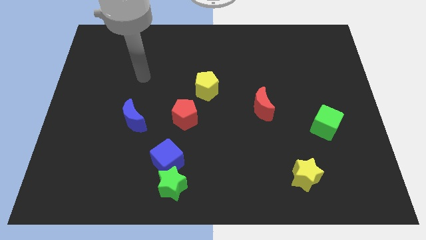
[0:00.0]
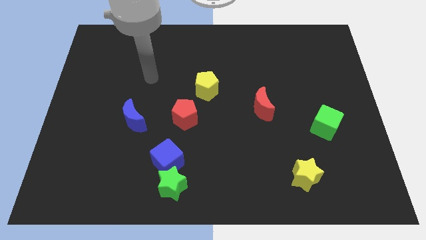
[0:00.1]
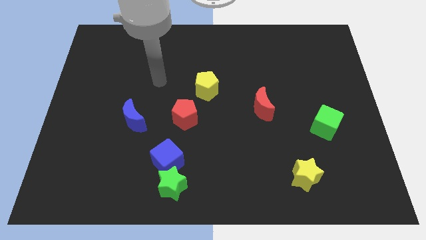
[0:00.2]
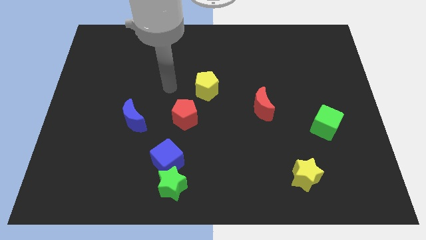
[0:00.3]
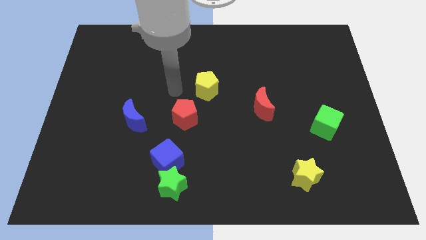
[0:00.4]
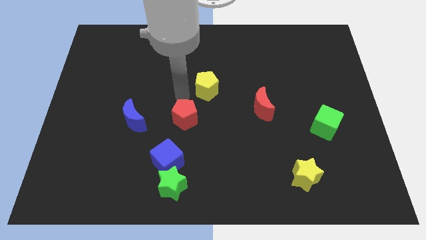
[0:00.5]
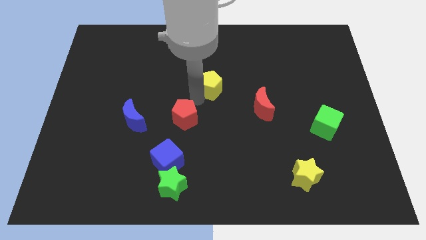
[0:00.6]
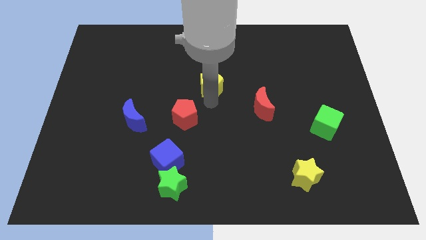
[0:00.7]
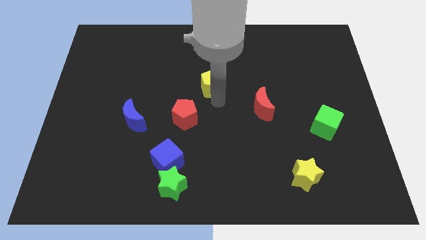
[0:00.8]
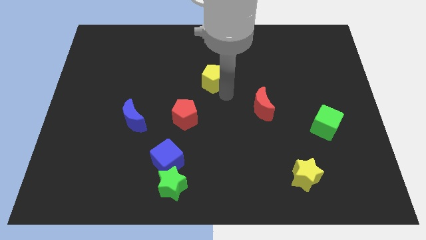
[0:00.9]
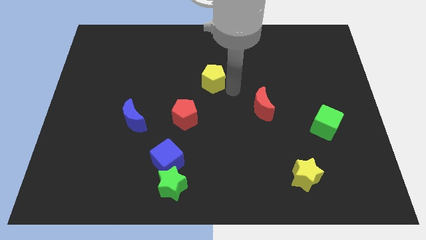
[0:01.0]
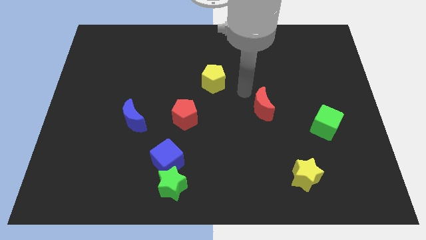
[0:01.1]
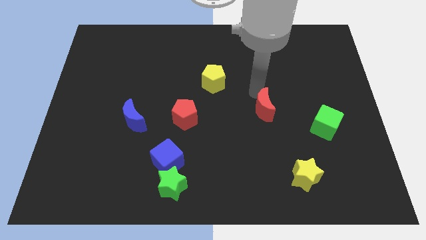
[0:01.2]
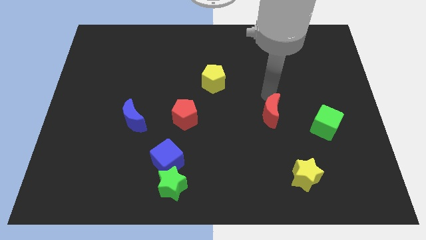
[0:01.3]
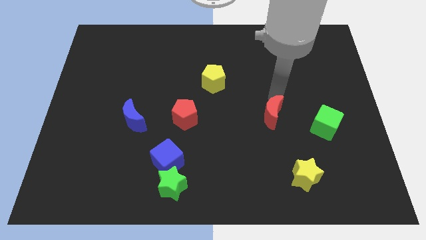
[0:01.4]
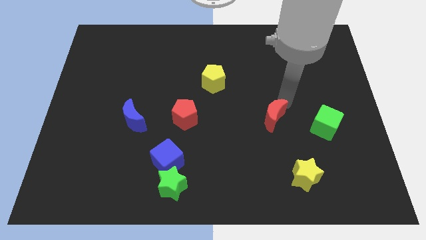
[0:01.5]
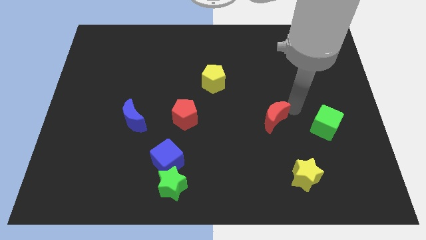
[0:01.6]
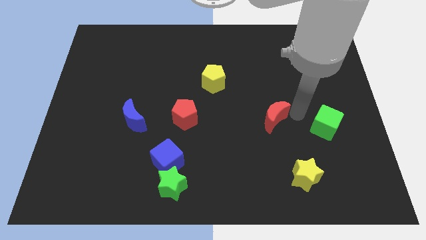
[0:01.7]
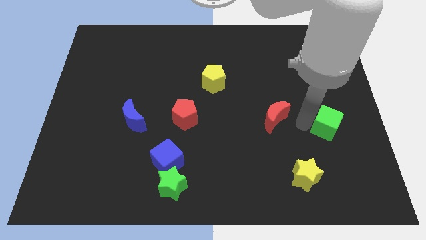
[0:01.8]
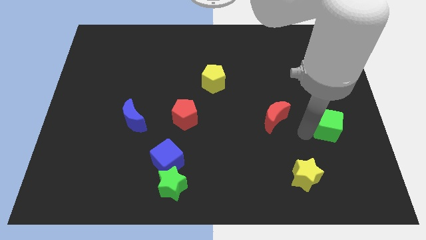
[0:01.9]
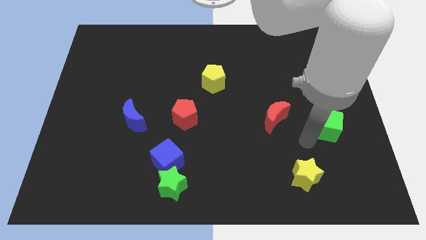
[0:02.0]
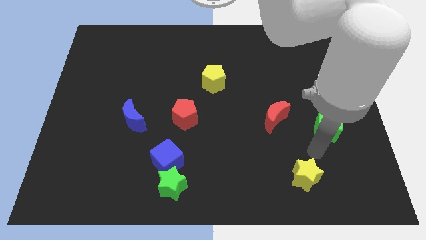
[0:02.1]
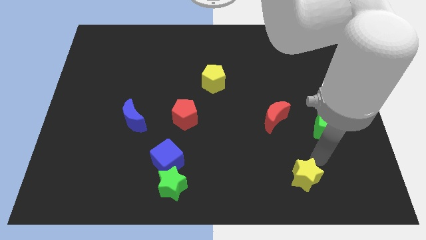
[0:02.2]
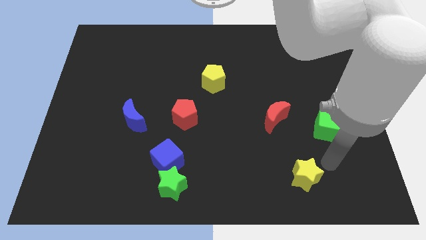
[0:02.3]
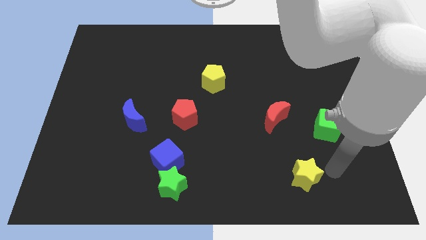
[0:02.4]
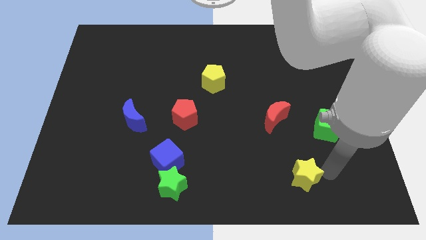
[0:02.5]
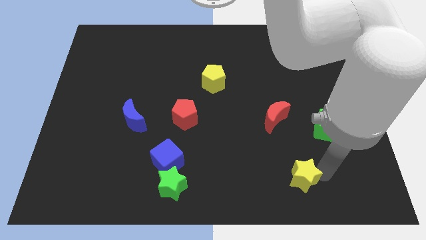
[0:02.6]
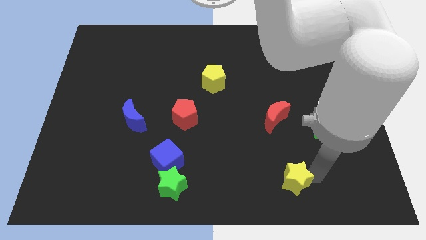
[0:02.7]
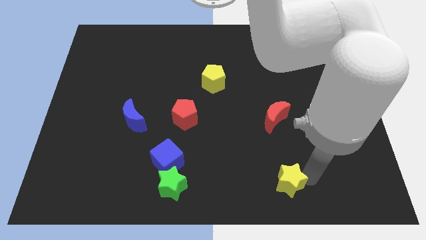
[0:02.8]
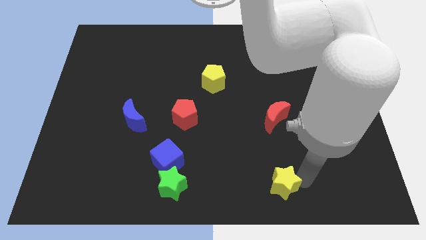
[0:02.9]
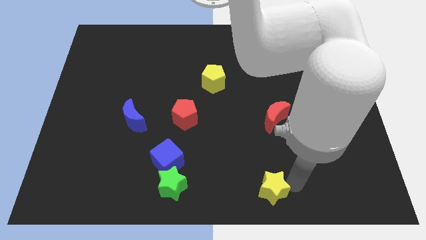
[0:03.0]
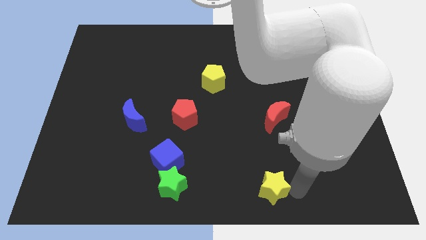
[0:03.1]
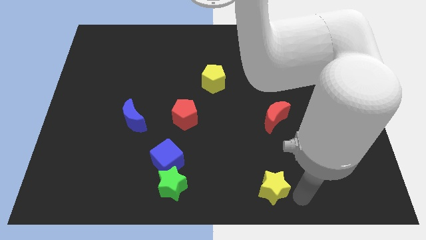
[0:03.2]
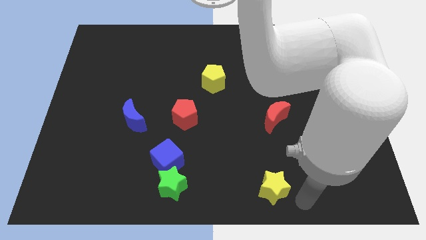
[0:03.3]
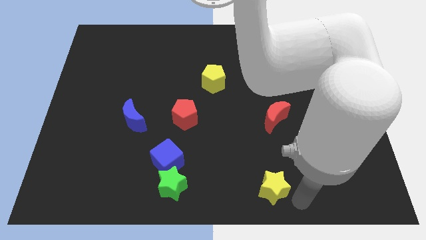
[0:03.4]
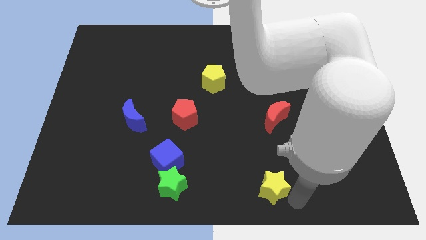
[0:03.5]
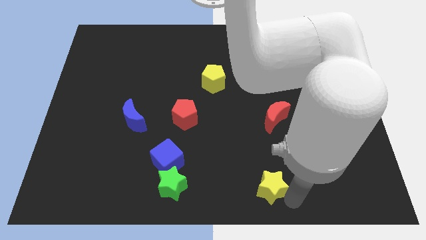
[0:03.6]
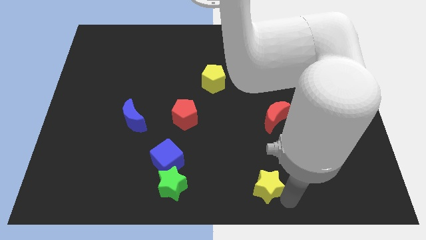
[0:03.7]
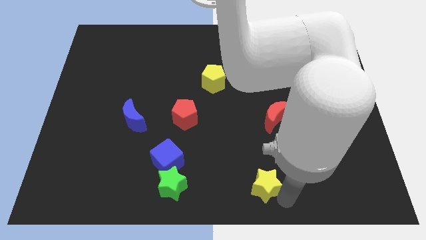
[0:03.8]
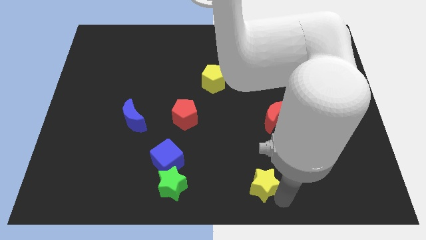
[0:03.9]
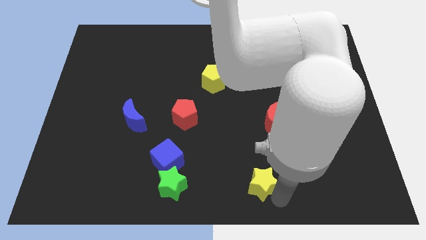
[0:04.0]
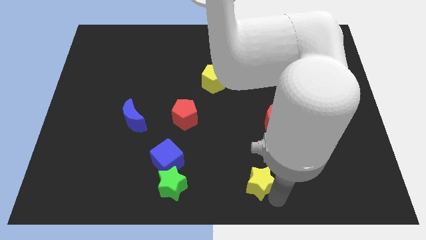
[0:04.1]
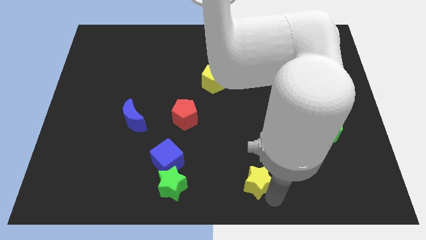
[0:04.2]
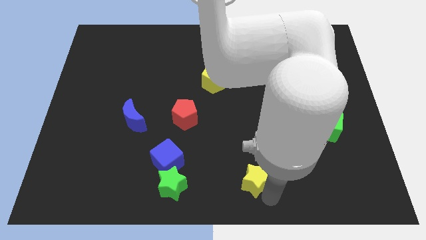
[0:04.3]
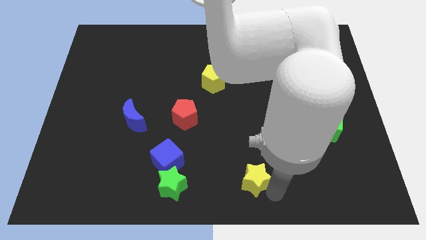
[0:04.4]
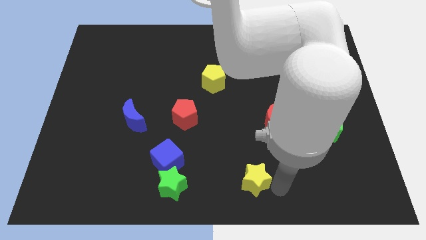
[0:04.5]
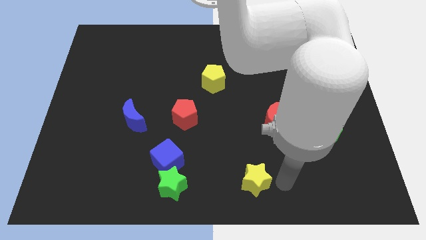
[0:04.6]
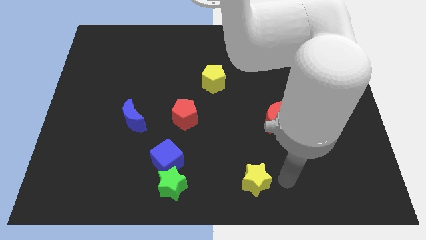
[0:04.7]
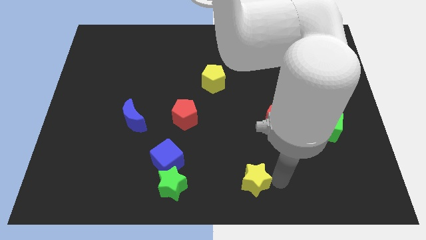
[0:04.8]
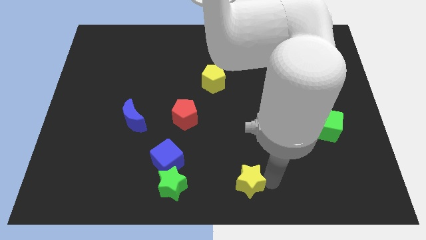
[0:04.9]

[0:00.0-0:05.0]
push the yellow star to the right of the green star

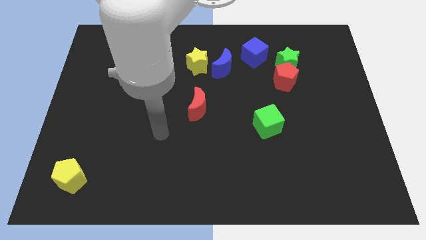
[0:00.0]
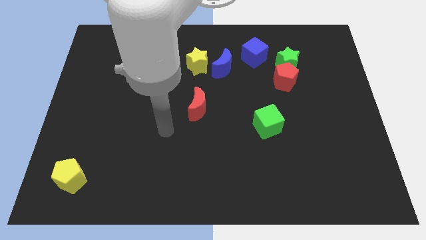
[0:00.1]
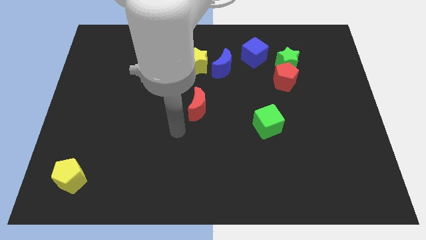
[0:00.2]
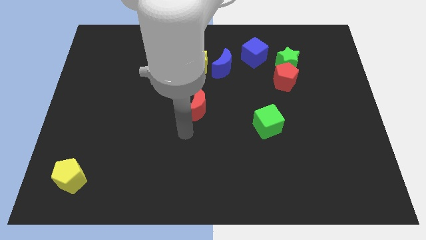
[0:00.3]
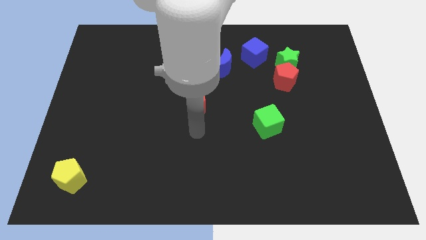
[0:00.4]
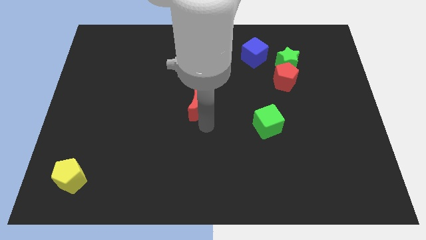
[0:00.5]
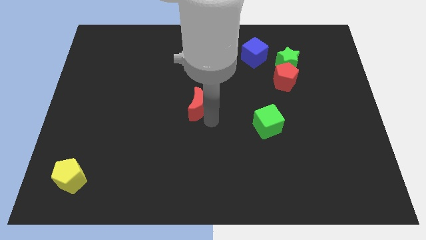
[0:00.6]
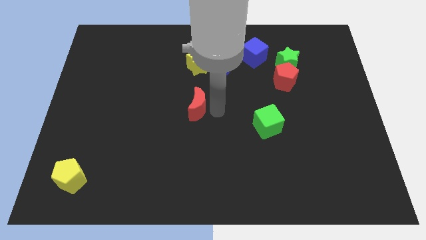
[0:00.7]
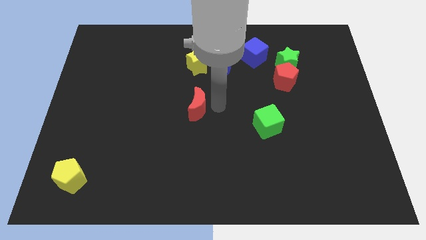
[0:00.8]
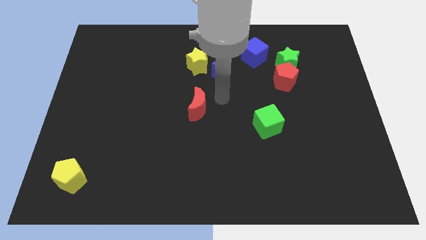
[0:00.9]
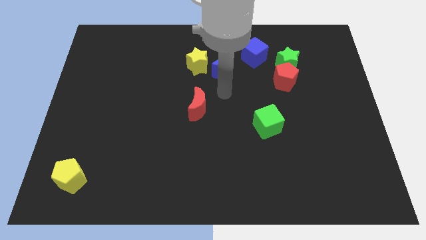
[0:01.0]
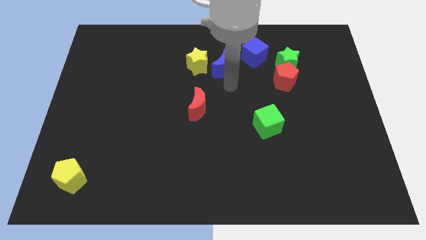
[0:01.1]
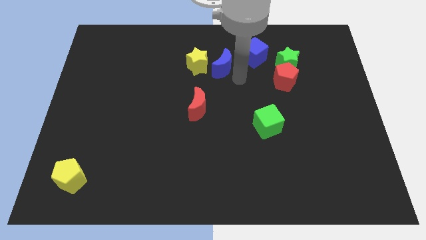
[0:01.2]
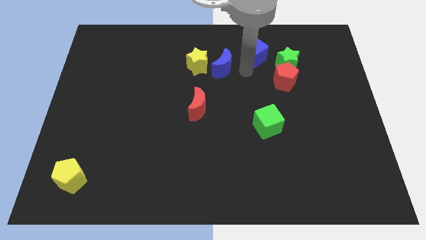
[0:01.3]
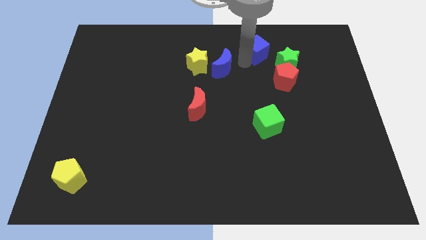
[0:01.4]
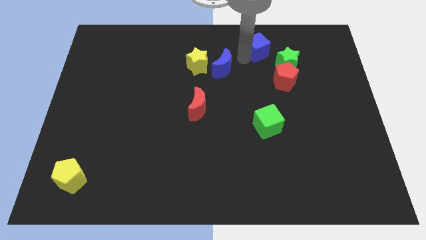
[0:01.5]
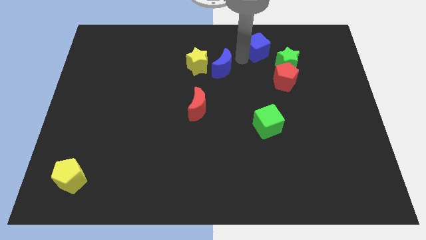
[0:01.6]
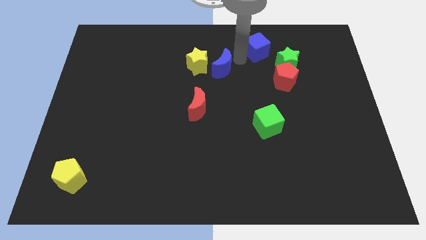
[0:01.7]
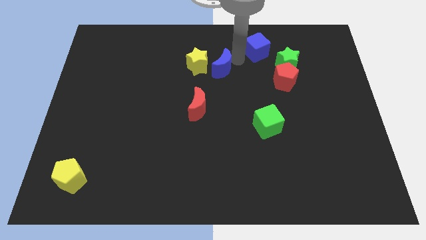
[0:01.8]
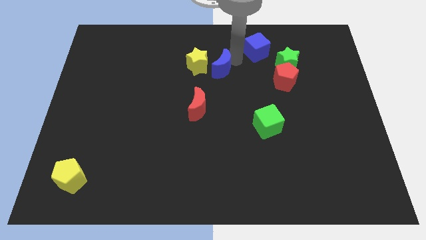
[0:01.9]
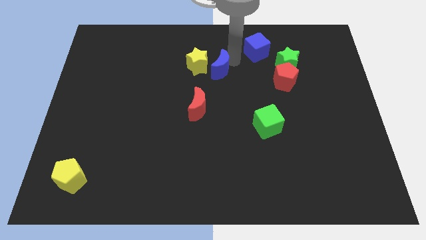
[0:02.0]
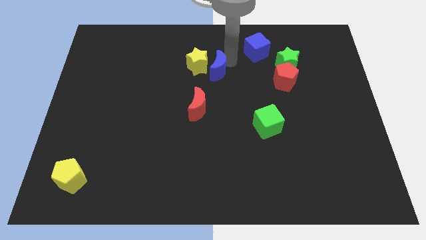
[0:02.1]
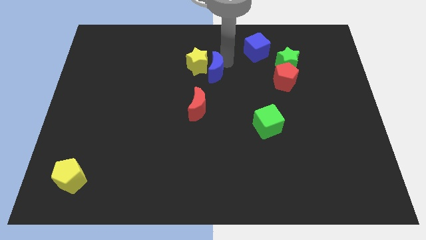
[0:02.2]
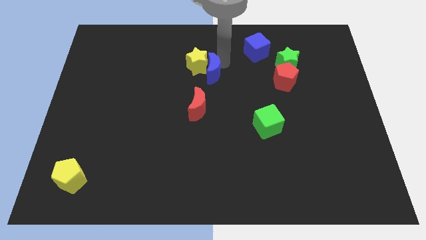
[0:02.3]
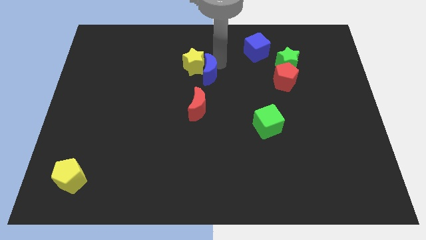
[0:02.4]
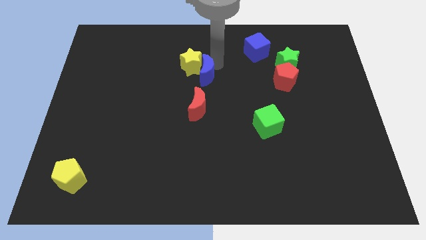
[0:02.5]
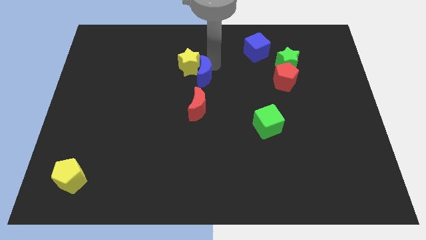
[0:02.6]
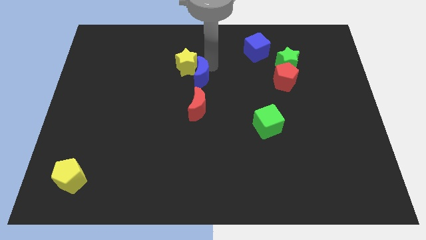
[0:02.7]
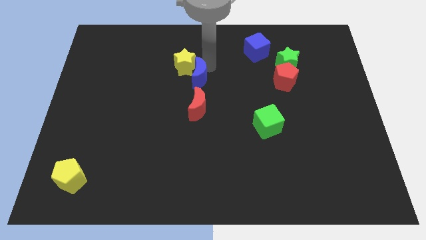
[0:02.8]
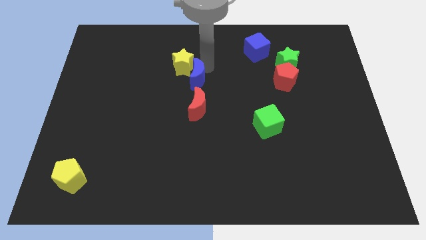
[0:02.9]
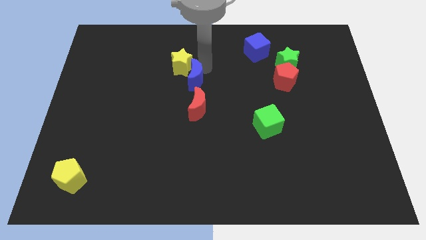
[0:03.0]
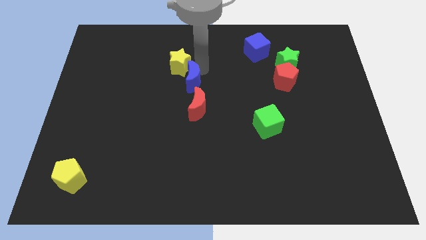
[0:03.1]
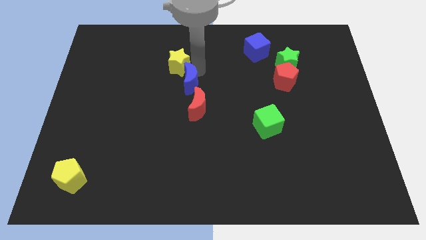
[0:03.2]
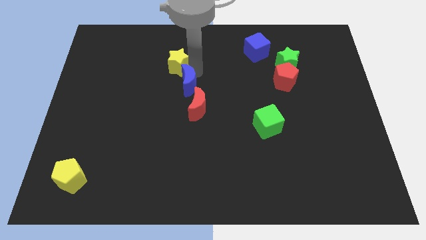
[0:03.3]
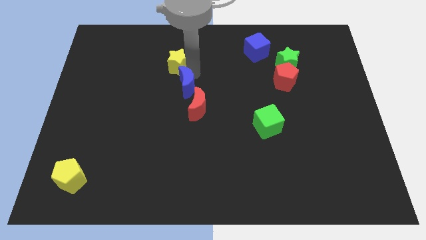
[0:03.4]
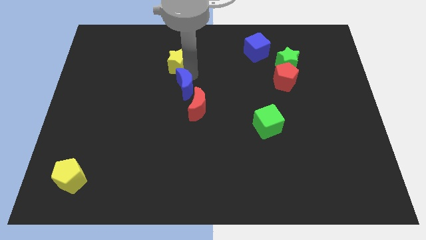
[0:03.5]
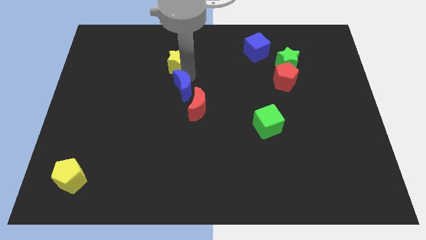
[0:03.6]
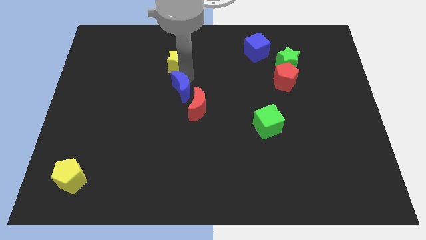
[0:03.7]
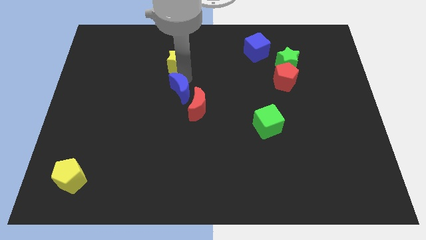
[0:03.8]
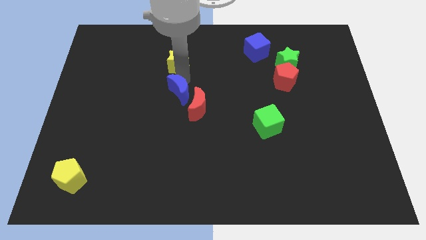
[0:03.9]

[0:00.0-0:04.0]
put the blue moon to the left of the red moon
